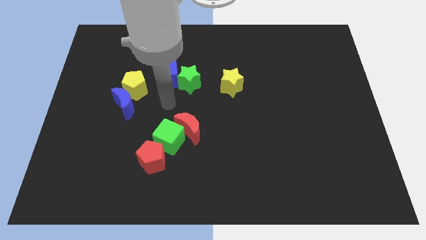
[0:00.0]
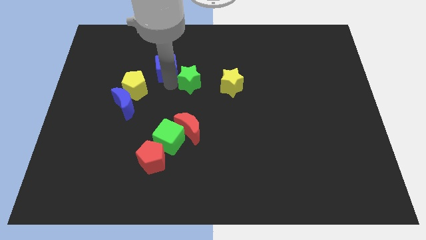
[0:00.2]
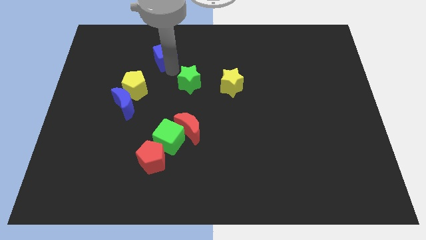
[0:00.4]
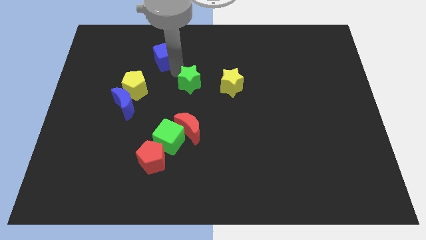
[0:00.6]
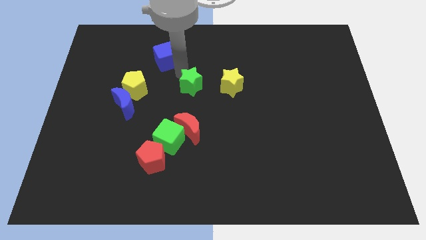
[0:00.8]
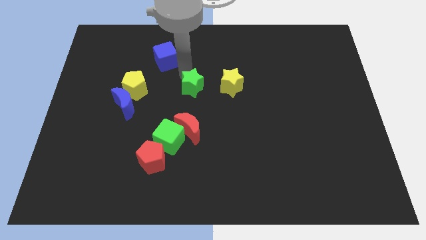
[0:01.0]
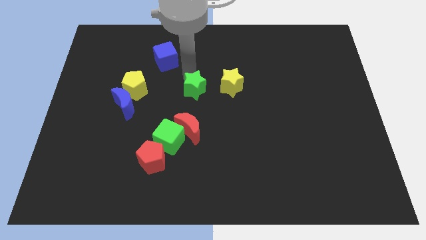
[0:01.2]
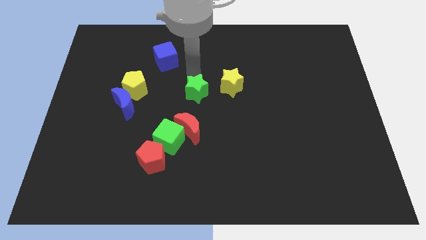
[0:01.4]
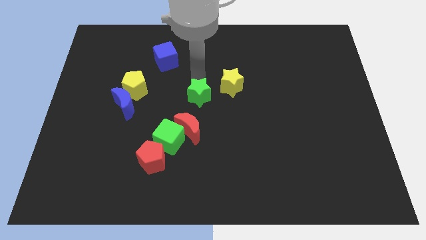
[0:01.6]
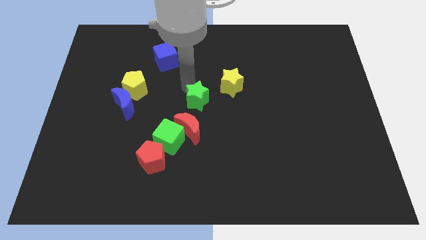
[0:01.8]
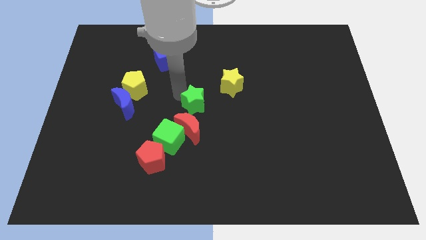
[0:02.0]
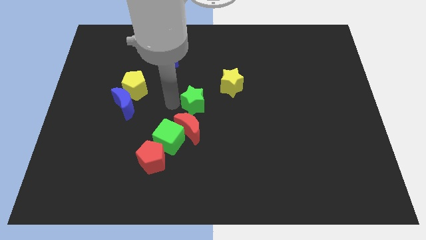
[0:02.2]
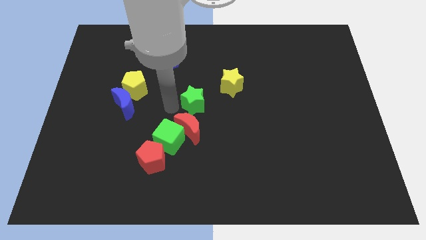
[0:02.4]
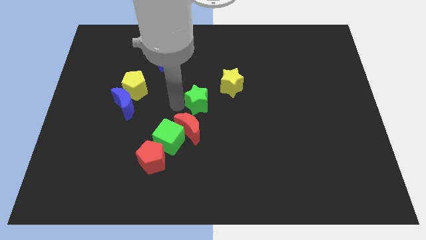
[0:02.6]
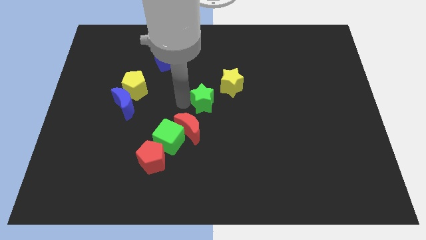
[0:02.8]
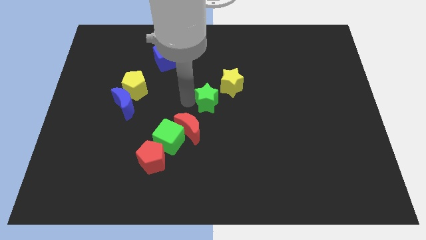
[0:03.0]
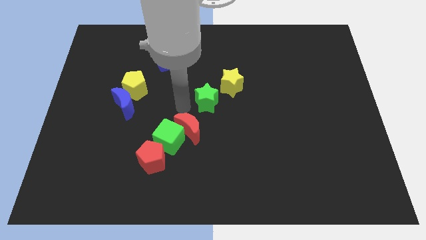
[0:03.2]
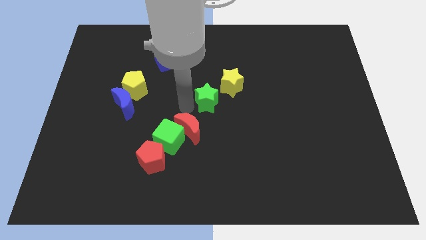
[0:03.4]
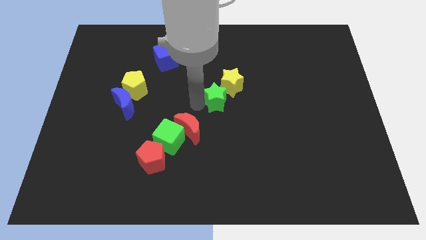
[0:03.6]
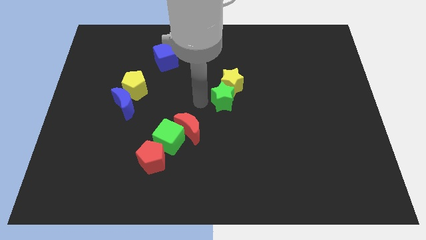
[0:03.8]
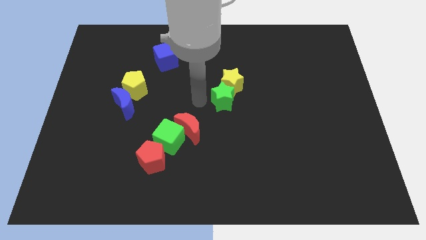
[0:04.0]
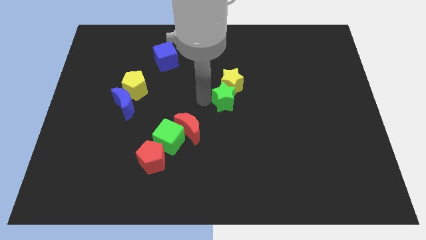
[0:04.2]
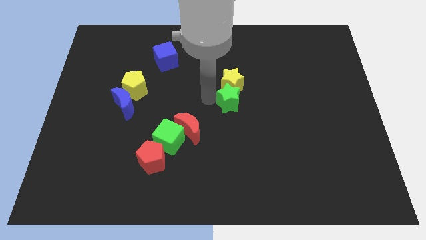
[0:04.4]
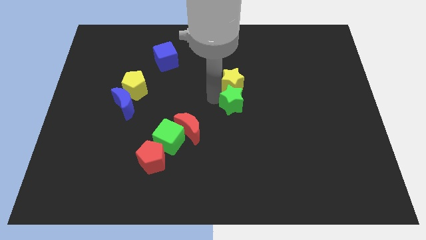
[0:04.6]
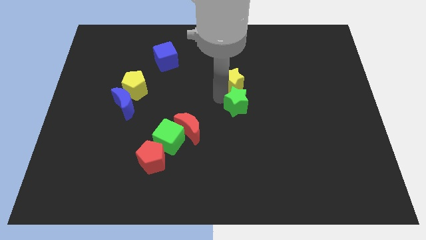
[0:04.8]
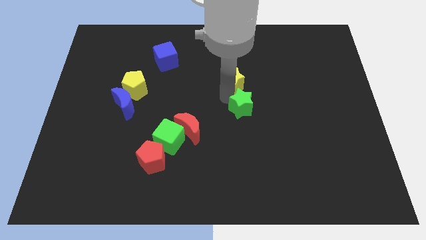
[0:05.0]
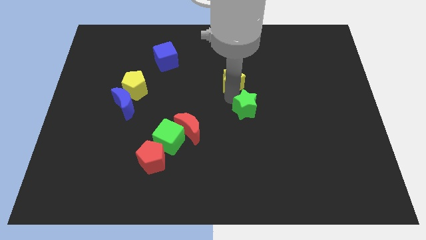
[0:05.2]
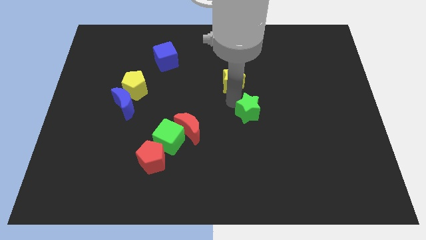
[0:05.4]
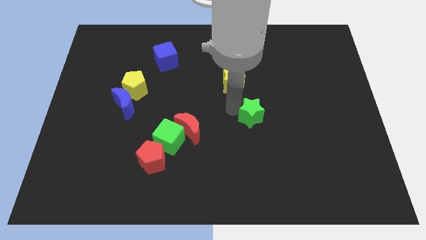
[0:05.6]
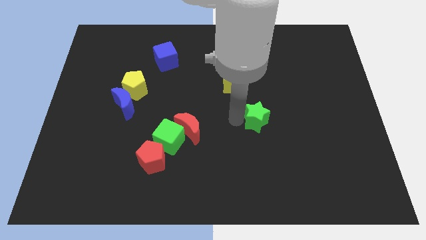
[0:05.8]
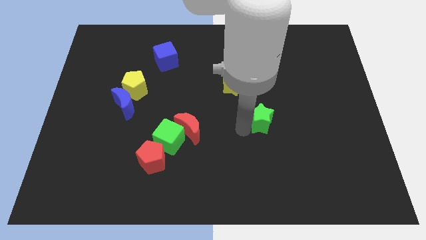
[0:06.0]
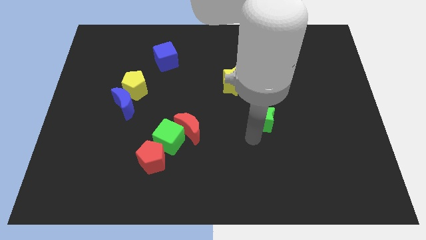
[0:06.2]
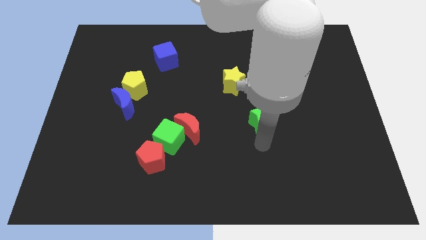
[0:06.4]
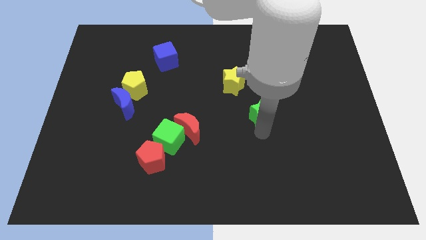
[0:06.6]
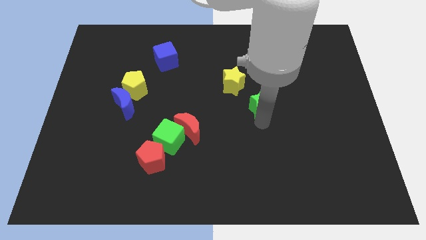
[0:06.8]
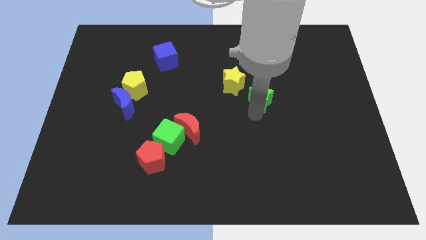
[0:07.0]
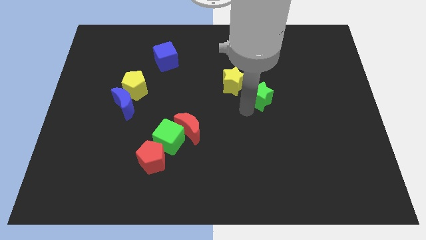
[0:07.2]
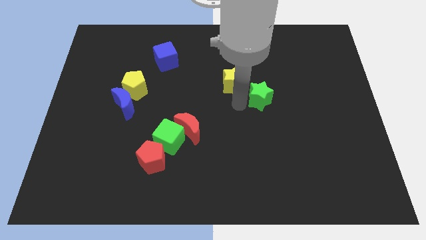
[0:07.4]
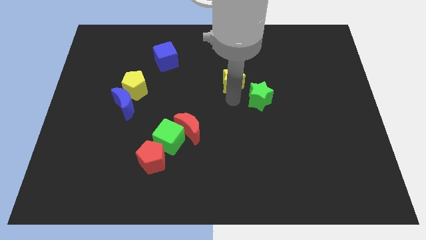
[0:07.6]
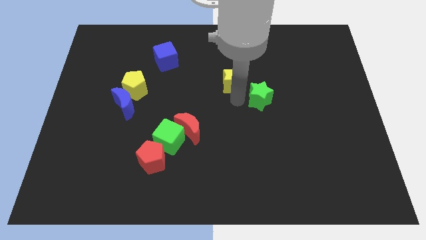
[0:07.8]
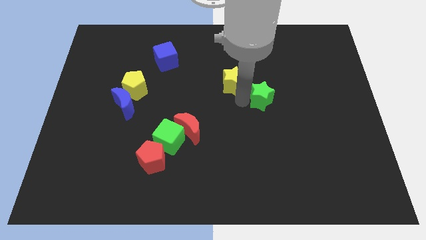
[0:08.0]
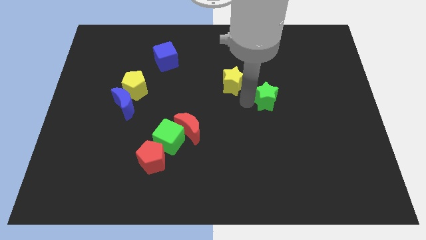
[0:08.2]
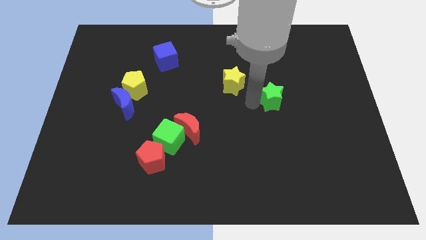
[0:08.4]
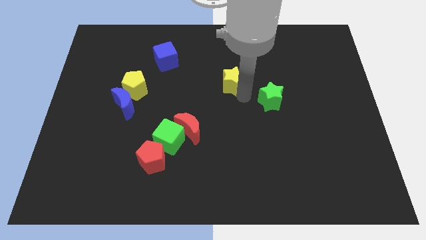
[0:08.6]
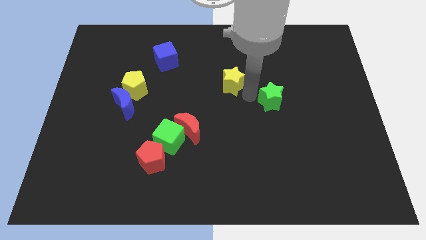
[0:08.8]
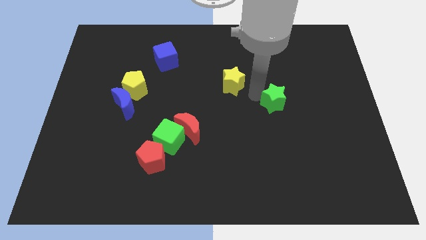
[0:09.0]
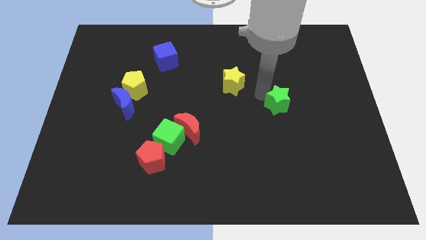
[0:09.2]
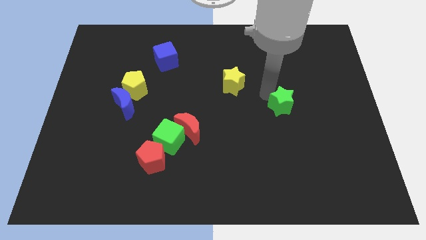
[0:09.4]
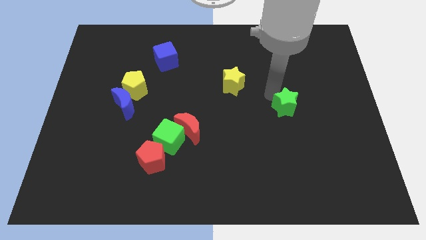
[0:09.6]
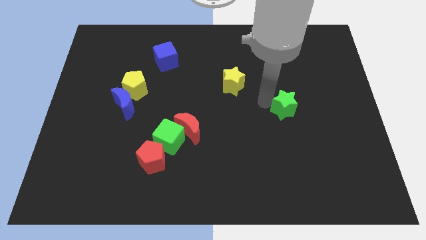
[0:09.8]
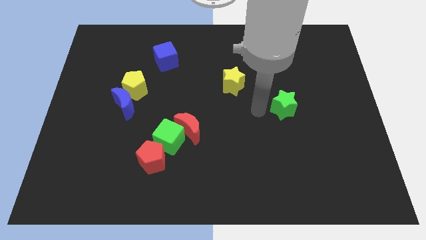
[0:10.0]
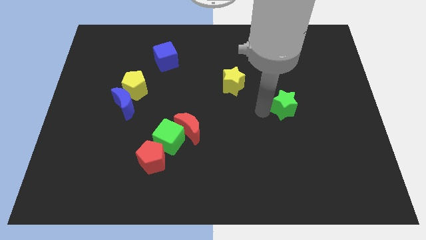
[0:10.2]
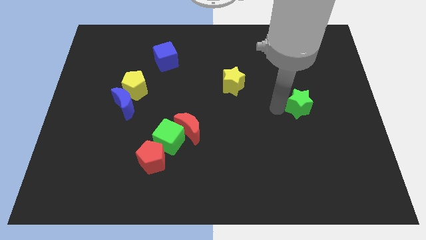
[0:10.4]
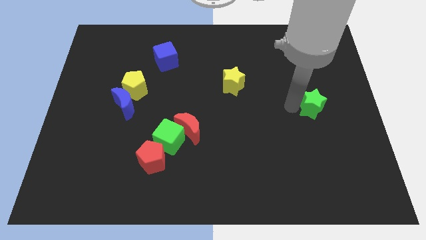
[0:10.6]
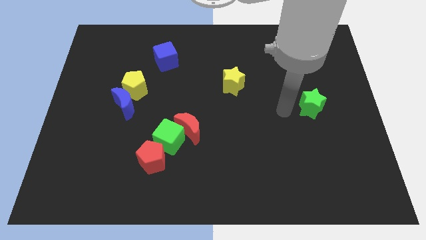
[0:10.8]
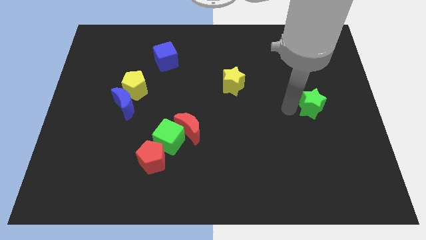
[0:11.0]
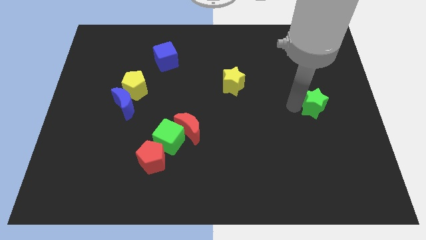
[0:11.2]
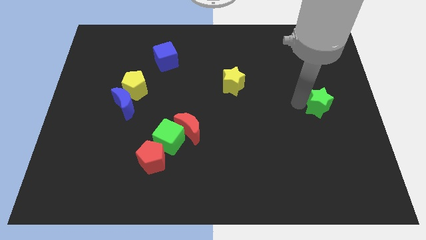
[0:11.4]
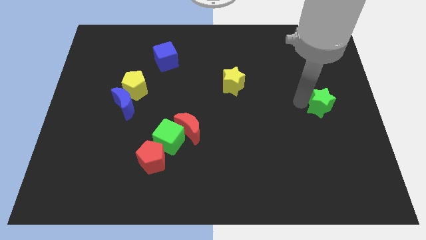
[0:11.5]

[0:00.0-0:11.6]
push the green star to the right side of the board

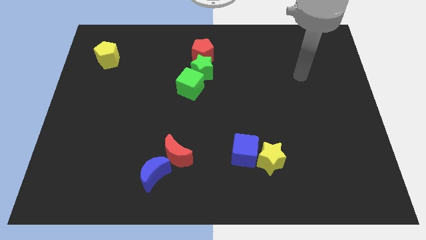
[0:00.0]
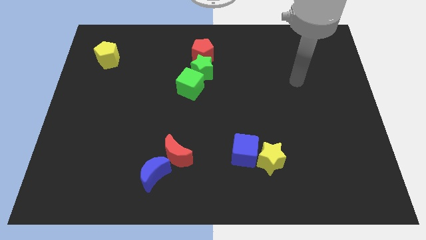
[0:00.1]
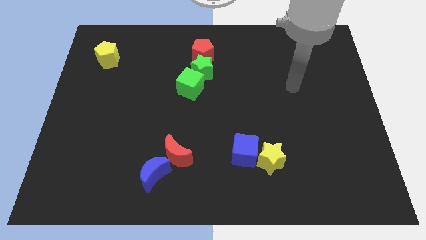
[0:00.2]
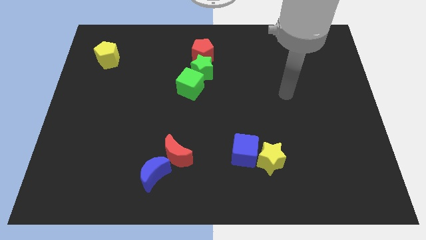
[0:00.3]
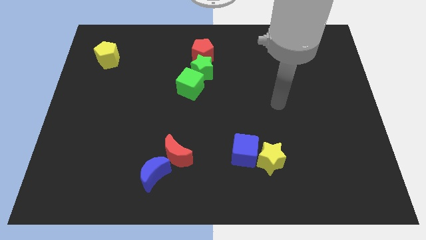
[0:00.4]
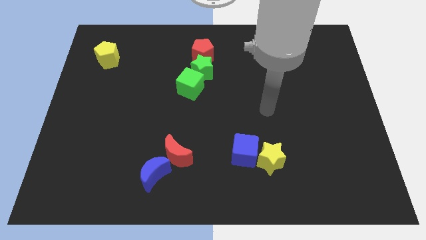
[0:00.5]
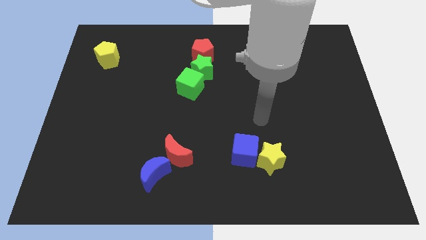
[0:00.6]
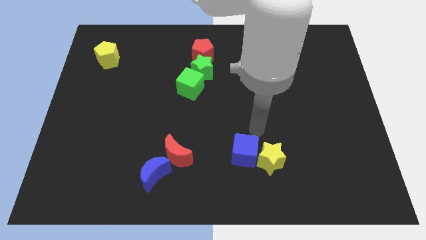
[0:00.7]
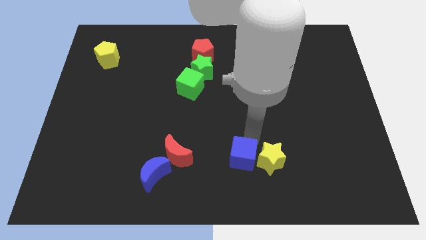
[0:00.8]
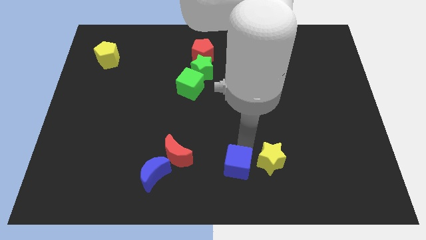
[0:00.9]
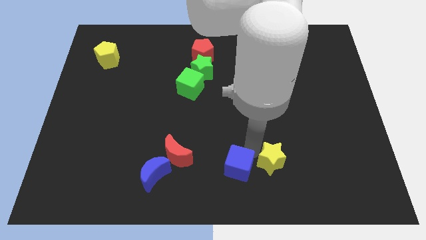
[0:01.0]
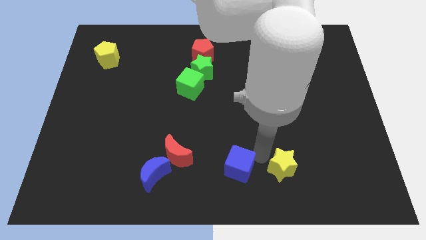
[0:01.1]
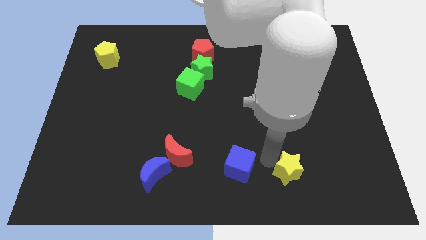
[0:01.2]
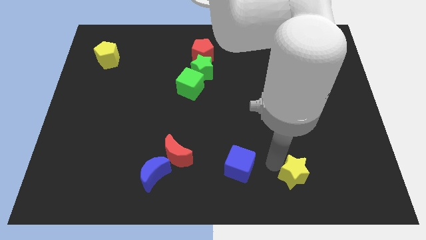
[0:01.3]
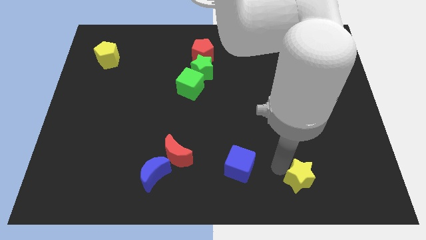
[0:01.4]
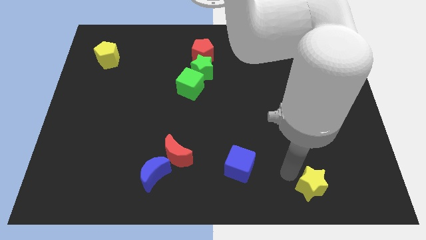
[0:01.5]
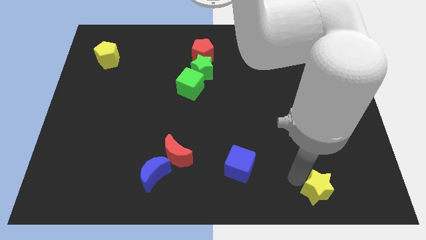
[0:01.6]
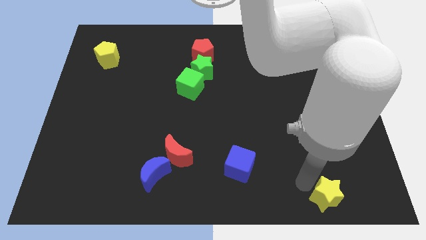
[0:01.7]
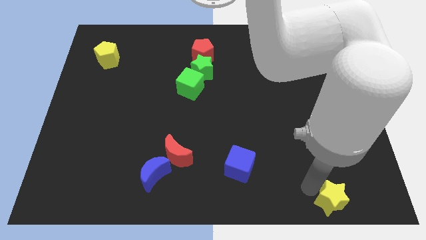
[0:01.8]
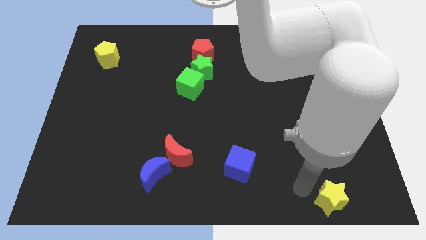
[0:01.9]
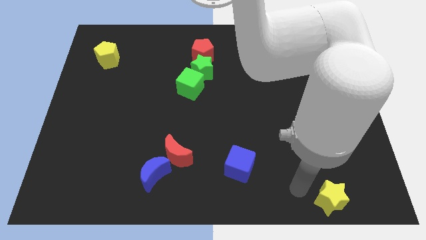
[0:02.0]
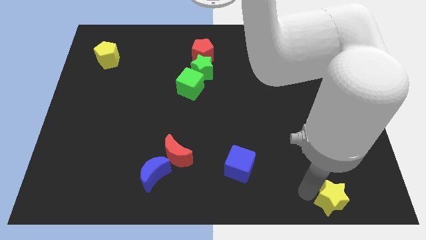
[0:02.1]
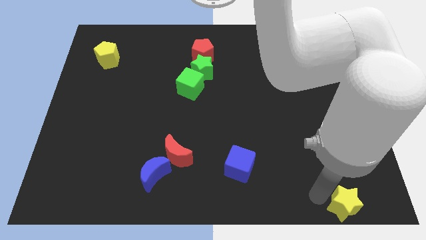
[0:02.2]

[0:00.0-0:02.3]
push the yellow star to the lower right corner
